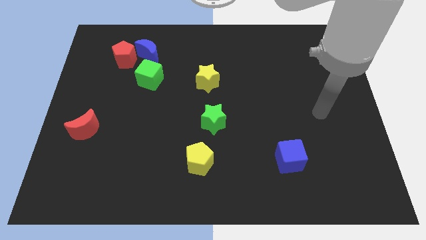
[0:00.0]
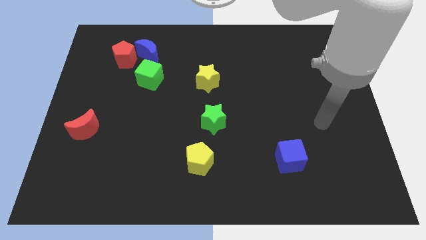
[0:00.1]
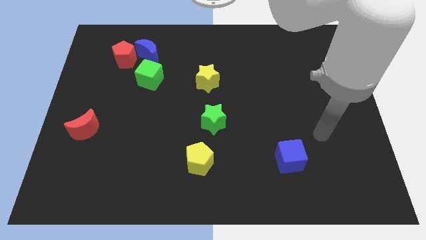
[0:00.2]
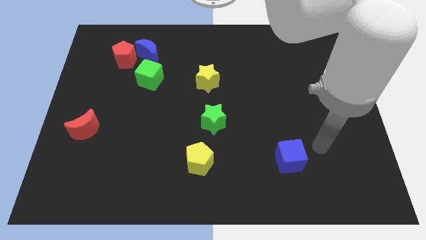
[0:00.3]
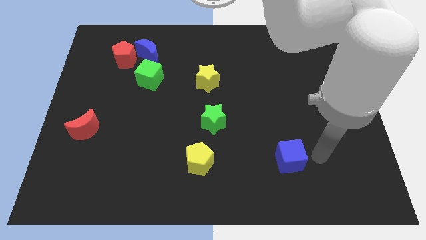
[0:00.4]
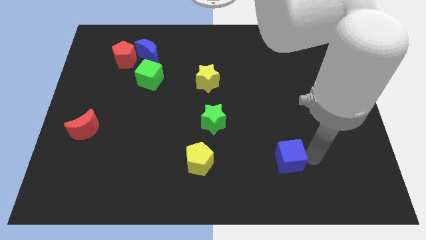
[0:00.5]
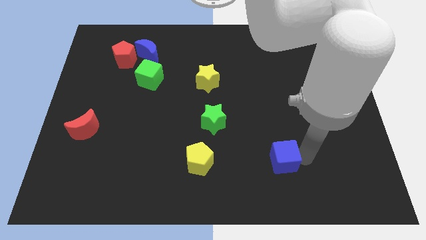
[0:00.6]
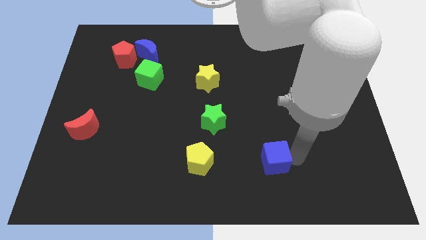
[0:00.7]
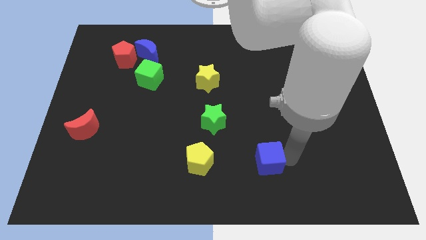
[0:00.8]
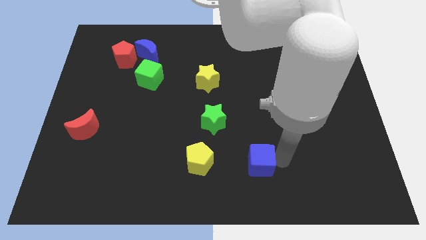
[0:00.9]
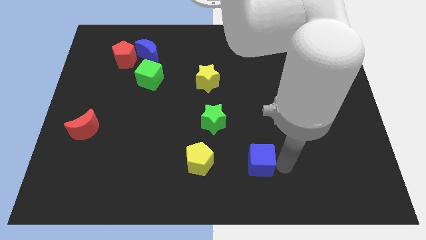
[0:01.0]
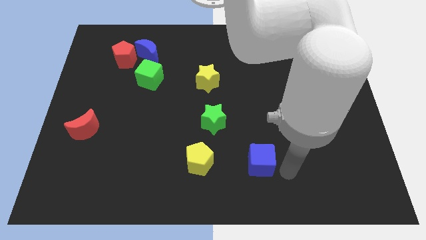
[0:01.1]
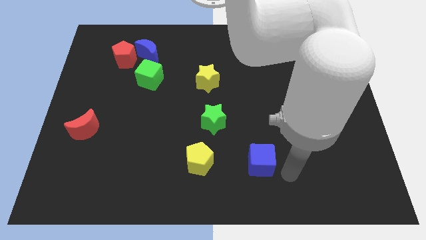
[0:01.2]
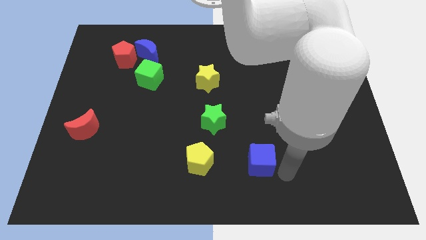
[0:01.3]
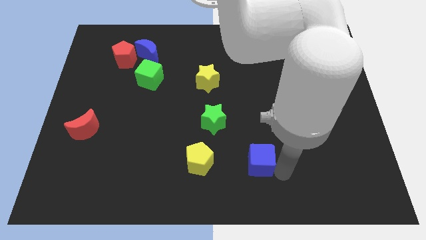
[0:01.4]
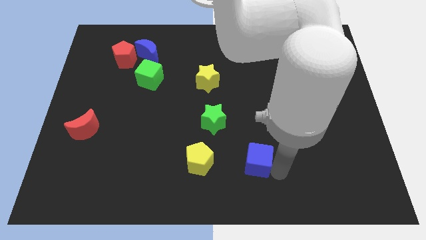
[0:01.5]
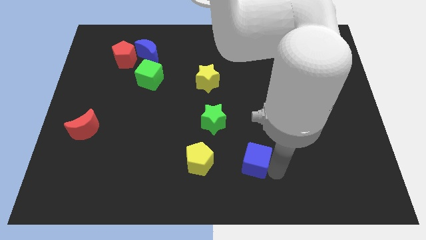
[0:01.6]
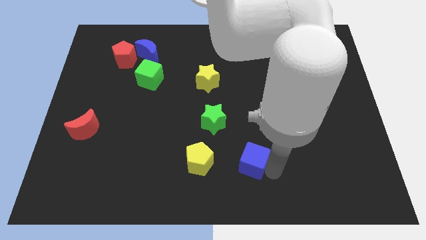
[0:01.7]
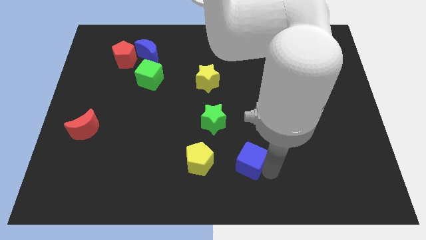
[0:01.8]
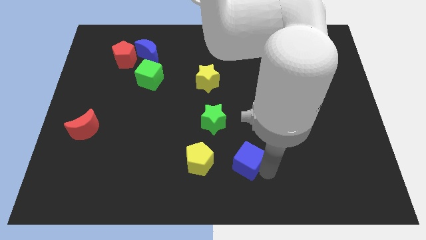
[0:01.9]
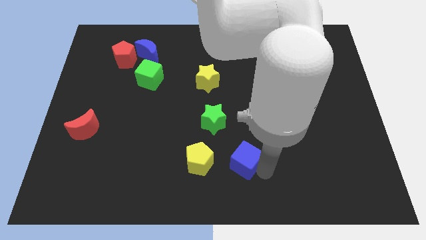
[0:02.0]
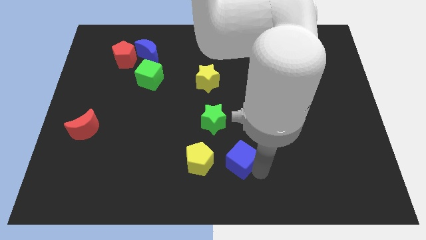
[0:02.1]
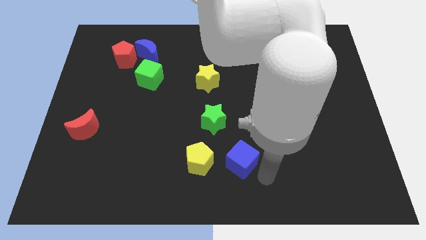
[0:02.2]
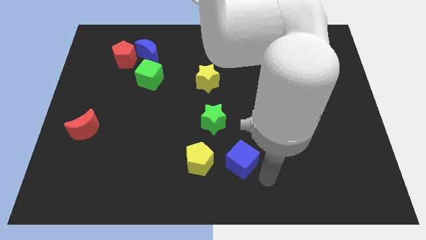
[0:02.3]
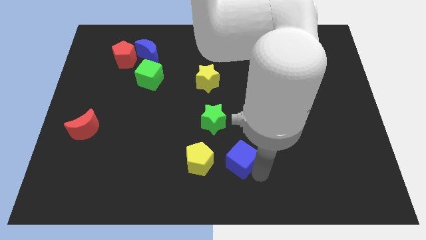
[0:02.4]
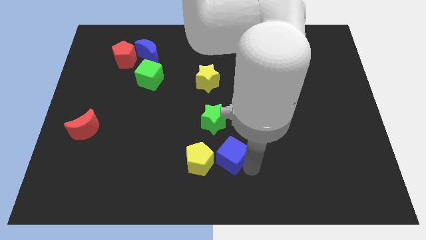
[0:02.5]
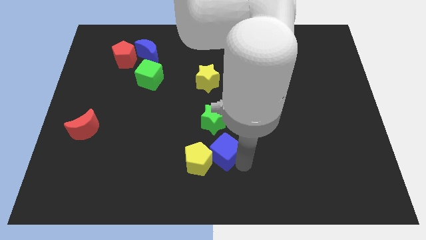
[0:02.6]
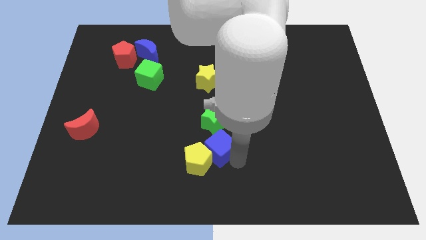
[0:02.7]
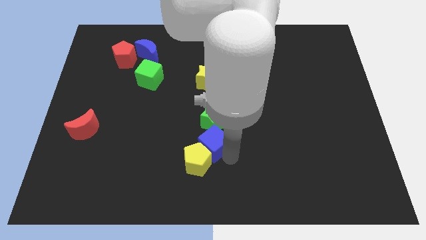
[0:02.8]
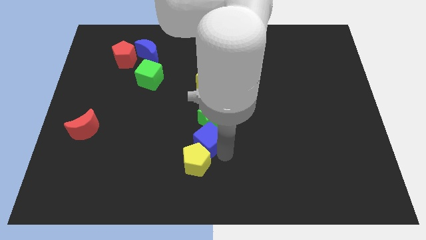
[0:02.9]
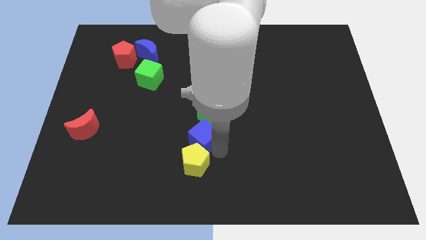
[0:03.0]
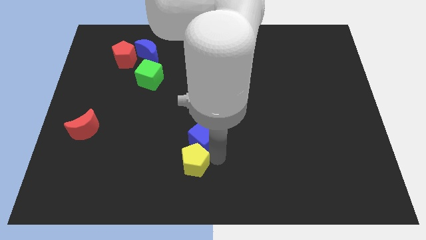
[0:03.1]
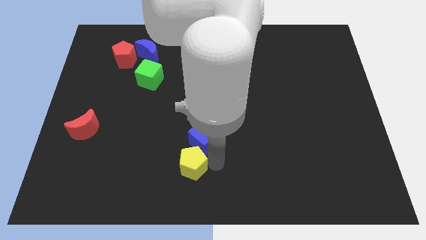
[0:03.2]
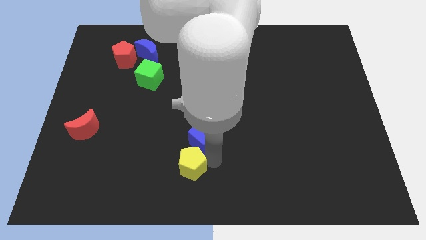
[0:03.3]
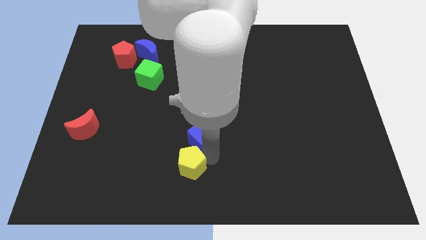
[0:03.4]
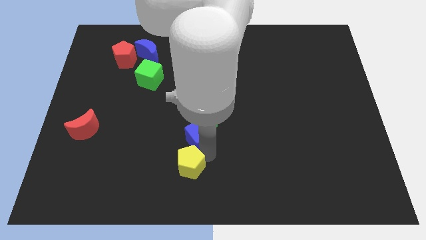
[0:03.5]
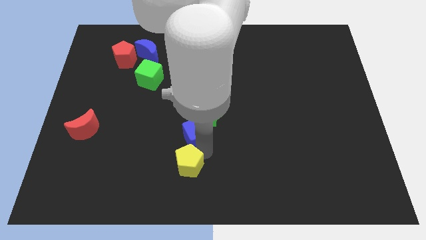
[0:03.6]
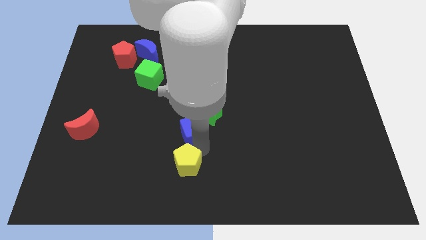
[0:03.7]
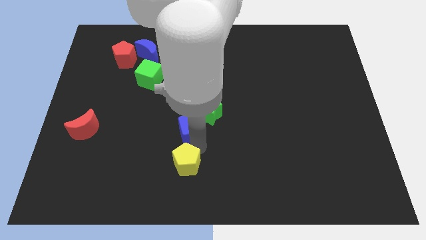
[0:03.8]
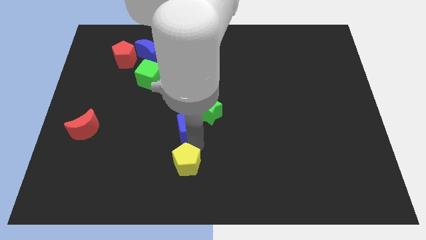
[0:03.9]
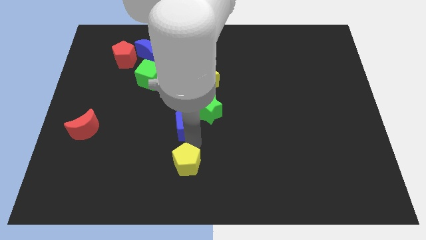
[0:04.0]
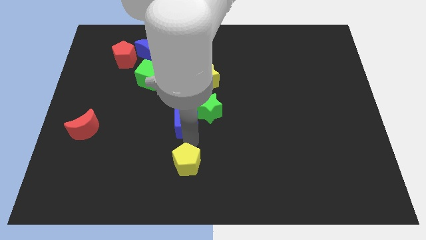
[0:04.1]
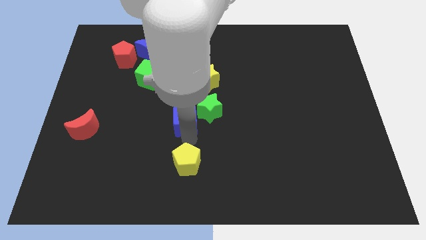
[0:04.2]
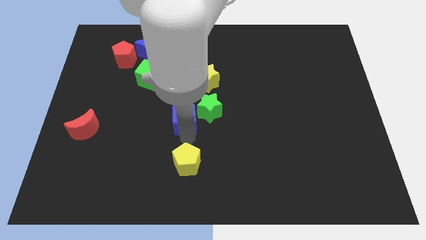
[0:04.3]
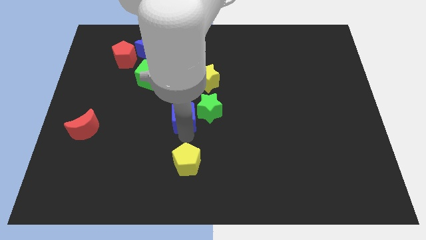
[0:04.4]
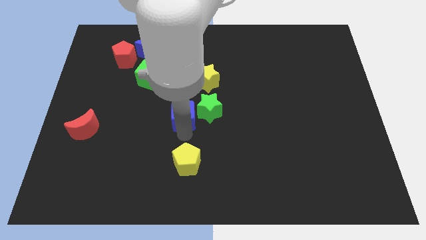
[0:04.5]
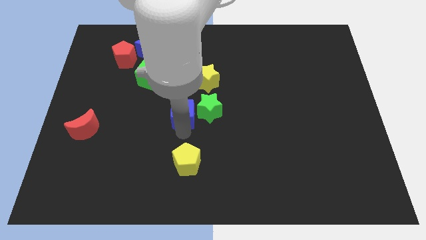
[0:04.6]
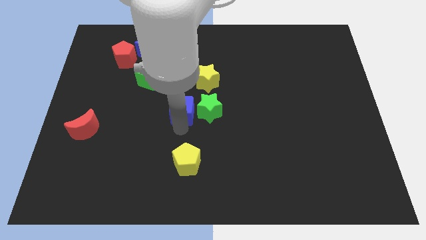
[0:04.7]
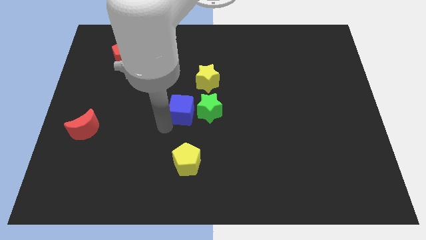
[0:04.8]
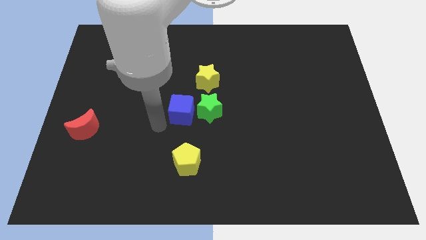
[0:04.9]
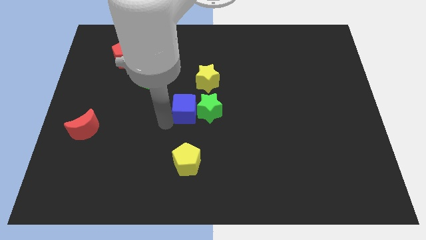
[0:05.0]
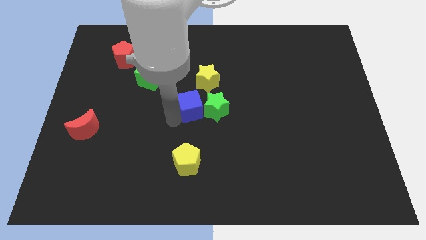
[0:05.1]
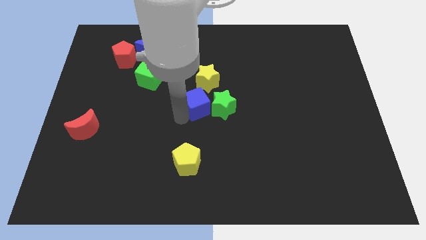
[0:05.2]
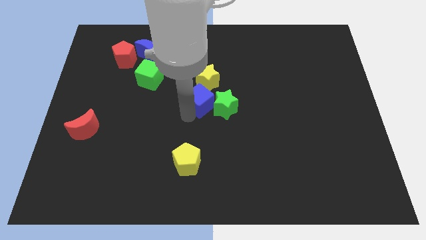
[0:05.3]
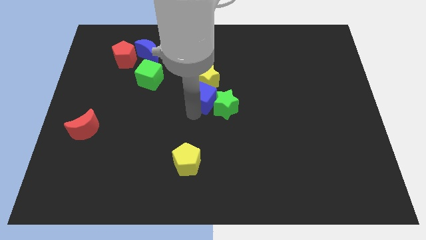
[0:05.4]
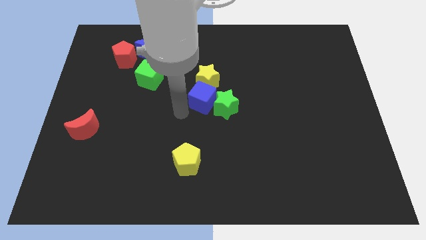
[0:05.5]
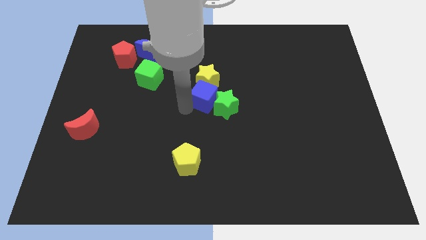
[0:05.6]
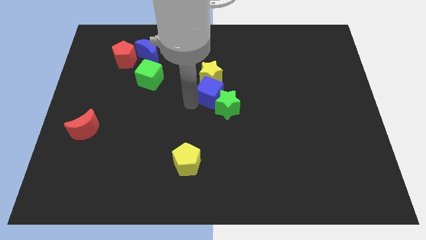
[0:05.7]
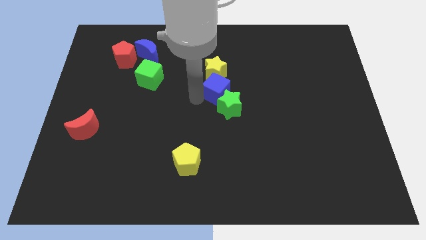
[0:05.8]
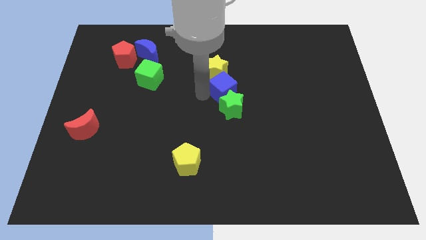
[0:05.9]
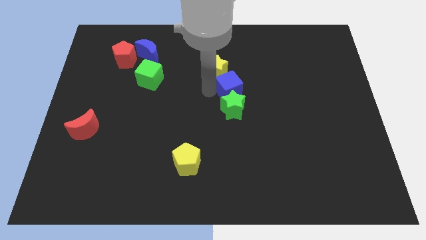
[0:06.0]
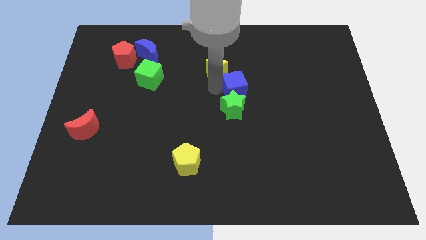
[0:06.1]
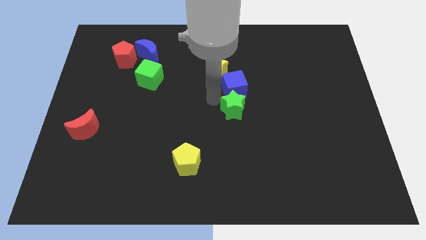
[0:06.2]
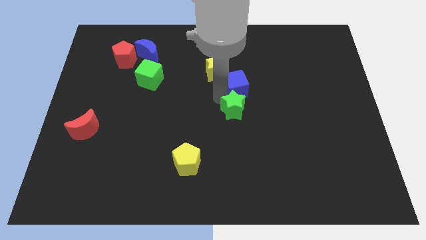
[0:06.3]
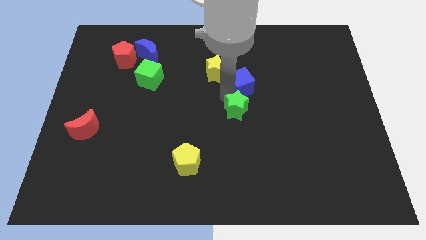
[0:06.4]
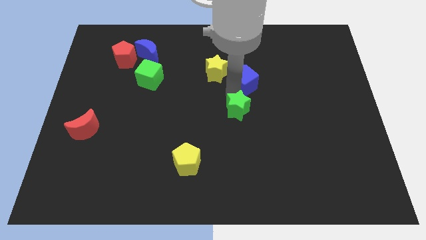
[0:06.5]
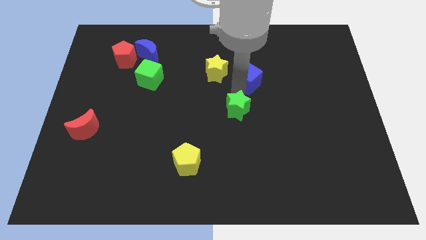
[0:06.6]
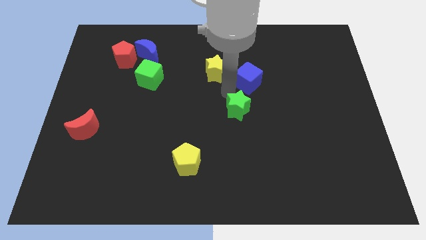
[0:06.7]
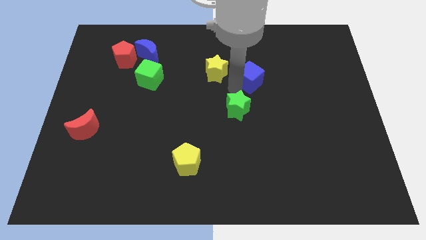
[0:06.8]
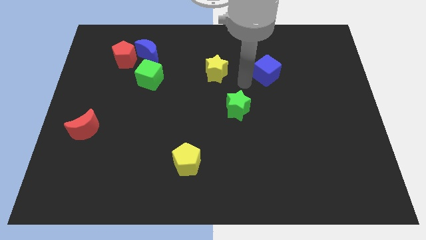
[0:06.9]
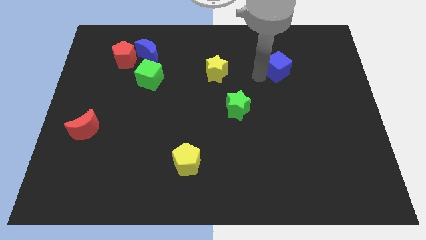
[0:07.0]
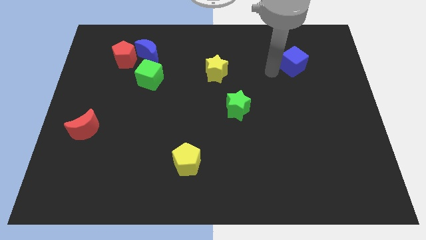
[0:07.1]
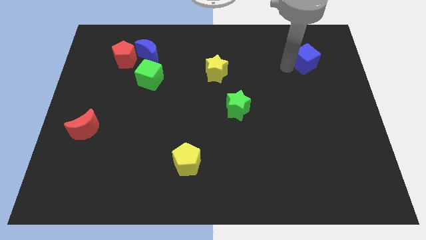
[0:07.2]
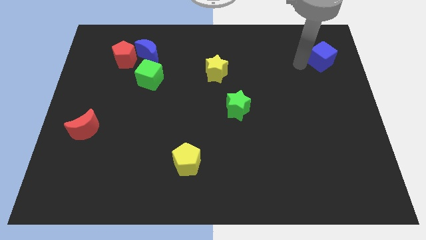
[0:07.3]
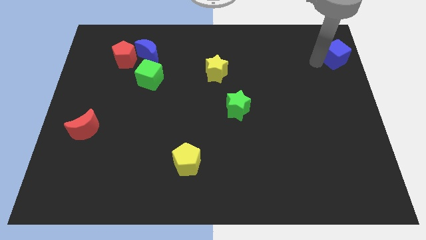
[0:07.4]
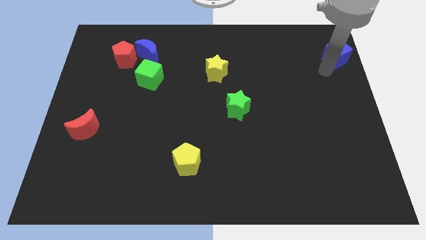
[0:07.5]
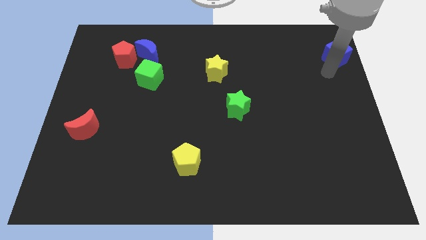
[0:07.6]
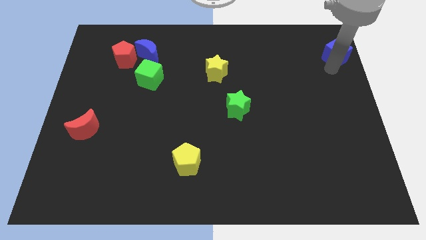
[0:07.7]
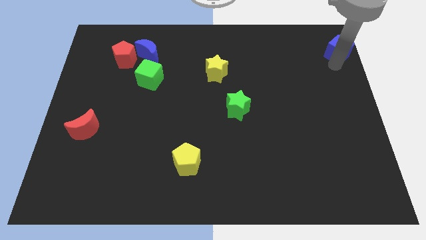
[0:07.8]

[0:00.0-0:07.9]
push the blue cube to the upper right corner
